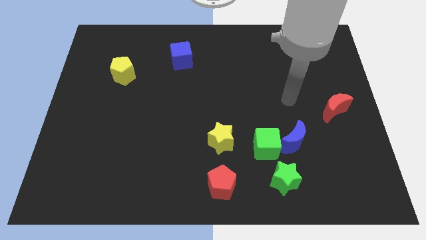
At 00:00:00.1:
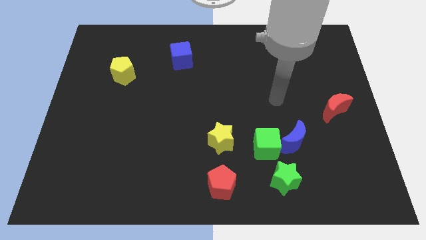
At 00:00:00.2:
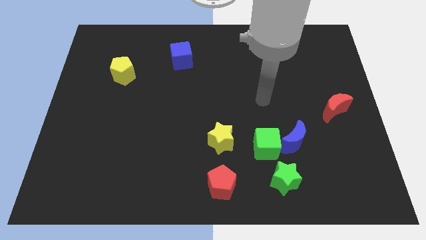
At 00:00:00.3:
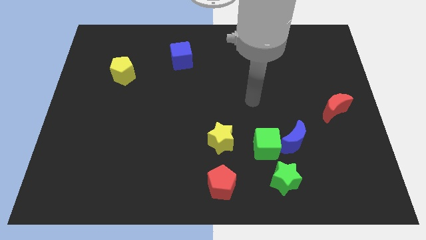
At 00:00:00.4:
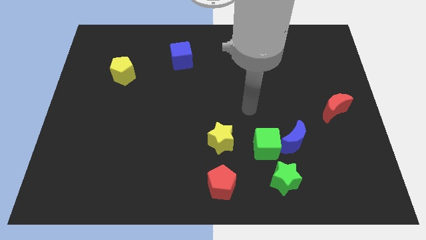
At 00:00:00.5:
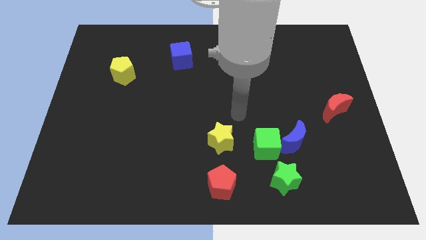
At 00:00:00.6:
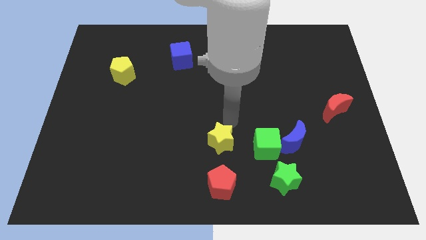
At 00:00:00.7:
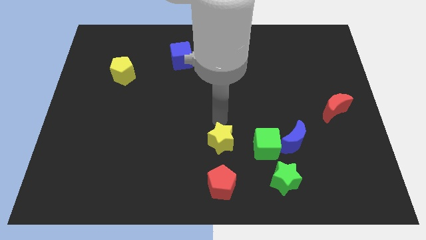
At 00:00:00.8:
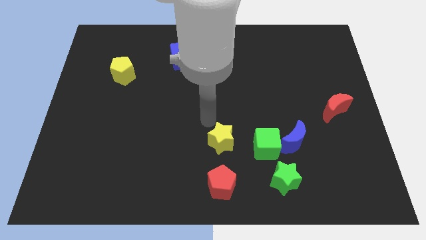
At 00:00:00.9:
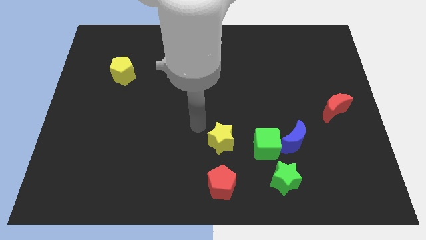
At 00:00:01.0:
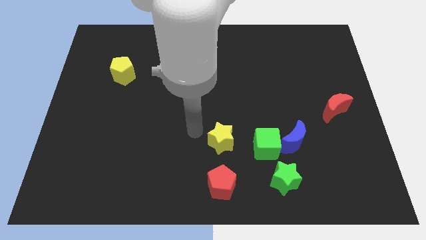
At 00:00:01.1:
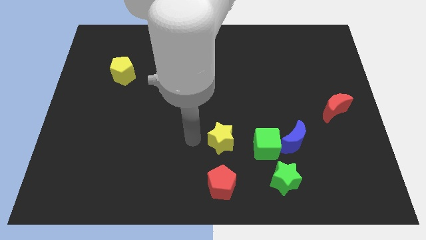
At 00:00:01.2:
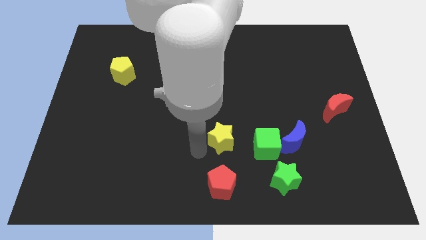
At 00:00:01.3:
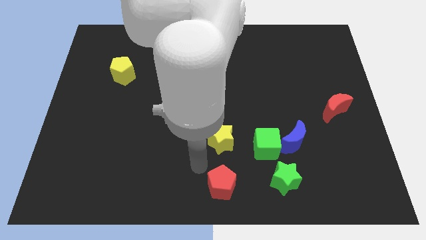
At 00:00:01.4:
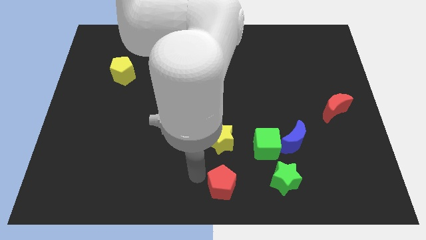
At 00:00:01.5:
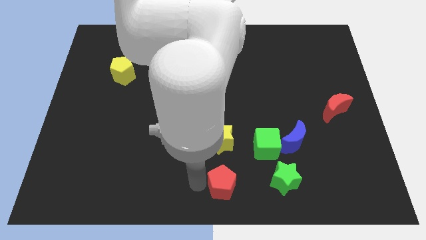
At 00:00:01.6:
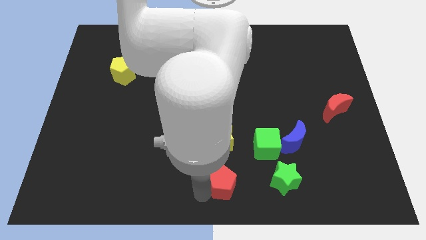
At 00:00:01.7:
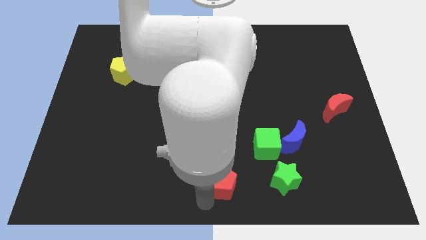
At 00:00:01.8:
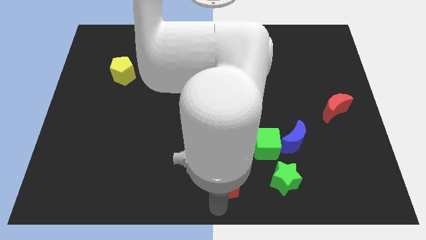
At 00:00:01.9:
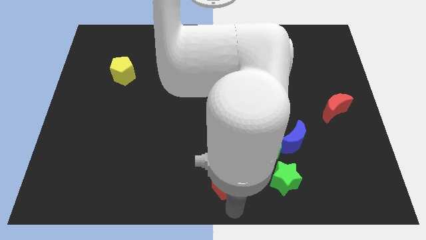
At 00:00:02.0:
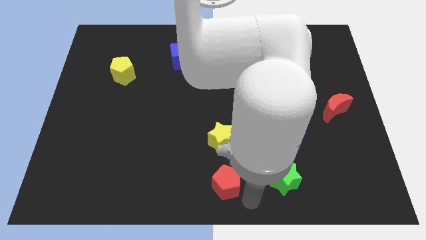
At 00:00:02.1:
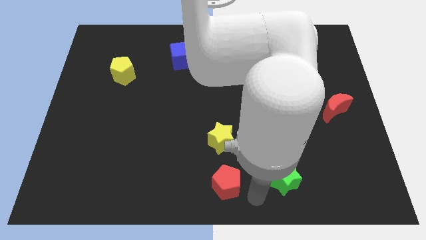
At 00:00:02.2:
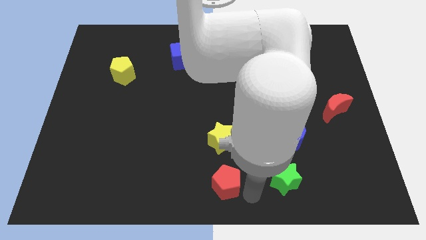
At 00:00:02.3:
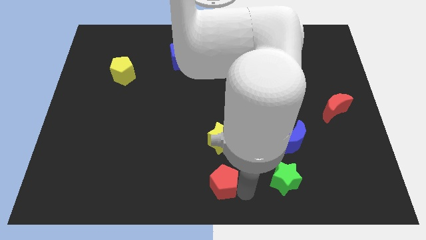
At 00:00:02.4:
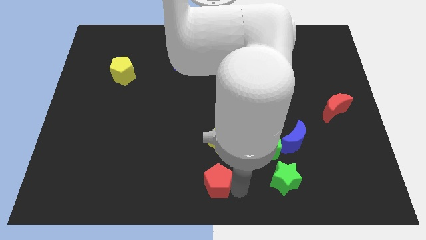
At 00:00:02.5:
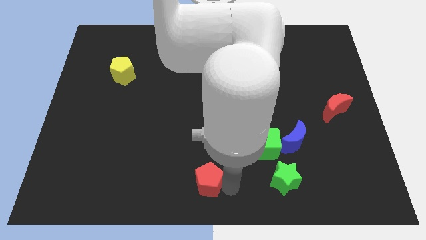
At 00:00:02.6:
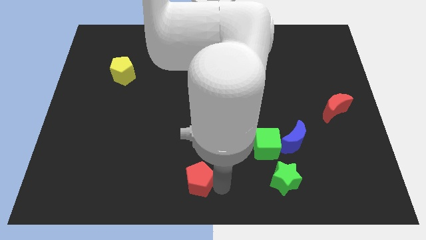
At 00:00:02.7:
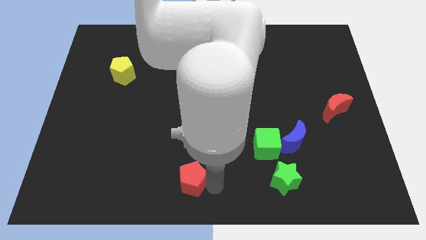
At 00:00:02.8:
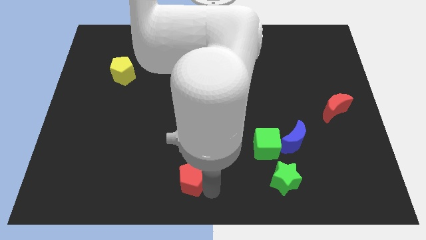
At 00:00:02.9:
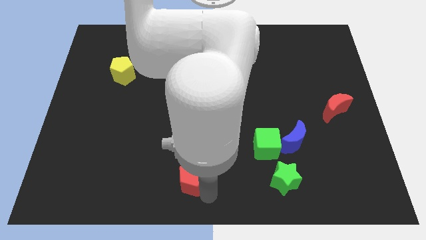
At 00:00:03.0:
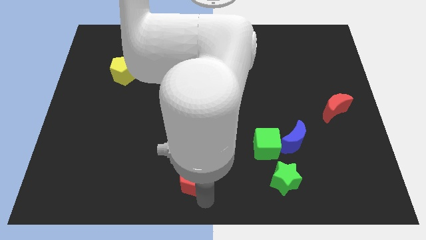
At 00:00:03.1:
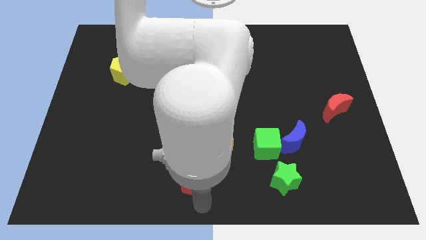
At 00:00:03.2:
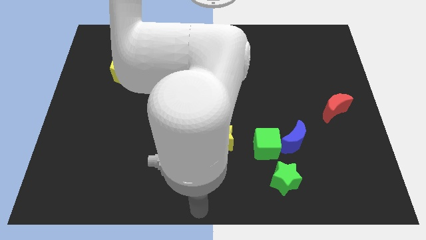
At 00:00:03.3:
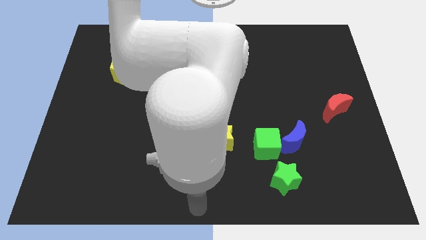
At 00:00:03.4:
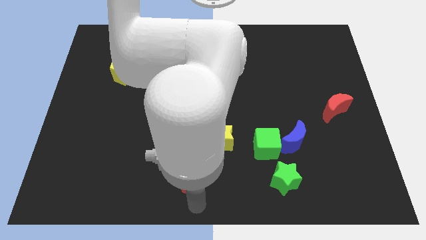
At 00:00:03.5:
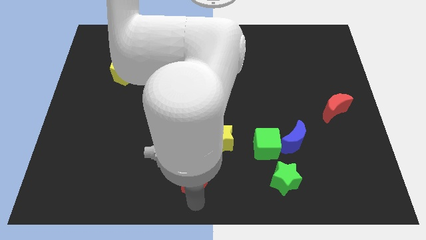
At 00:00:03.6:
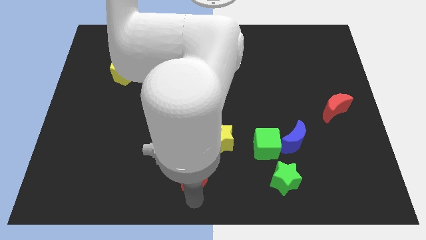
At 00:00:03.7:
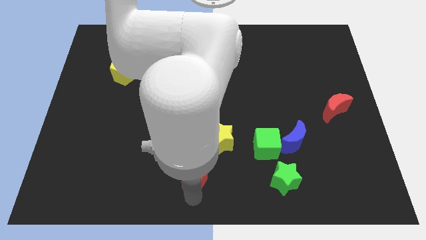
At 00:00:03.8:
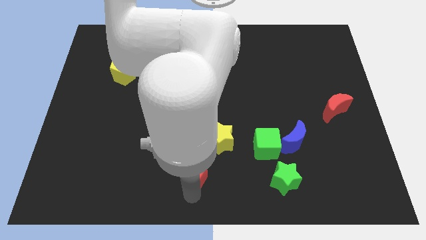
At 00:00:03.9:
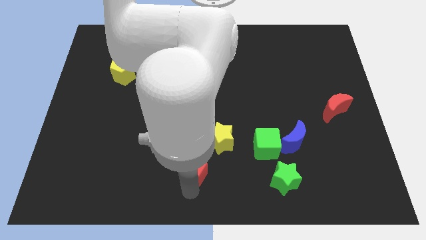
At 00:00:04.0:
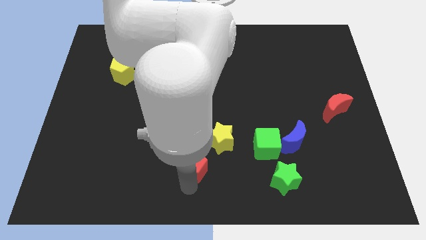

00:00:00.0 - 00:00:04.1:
slightly push the red pentagon upwards and left diagonally

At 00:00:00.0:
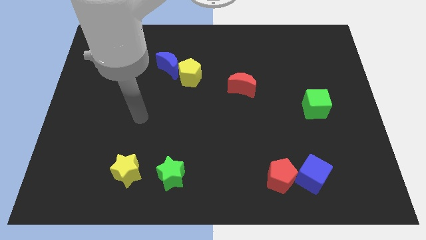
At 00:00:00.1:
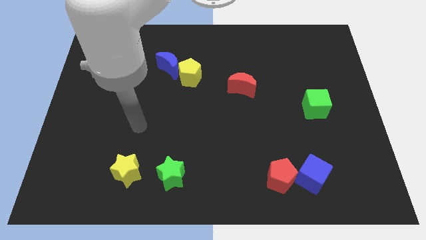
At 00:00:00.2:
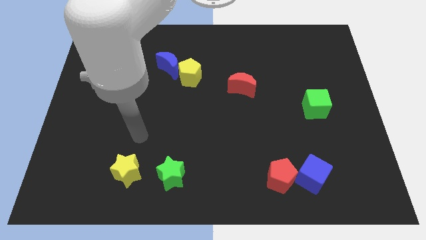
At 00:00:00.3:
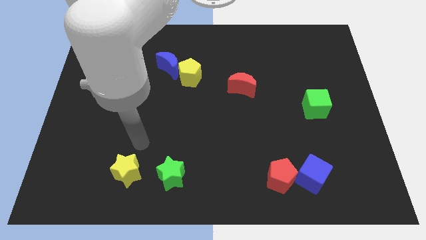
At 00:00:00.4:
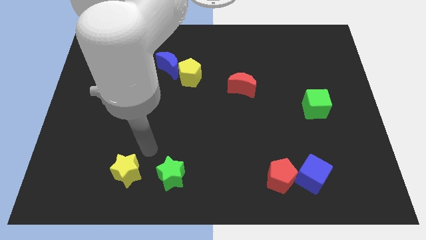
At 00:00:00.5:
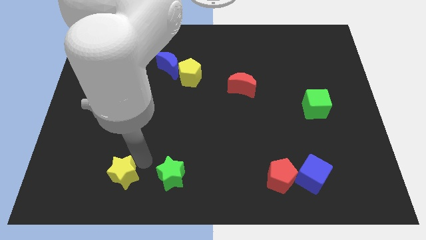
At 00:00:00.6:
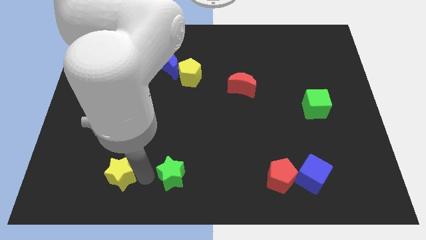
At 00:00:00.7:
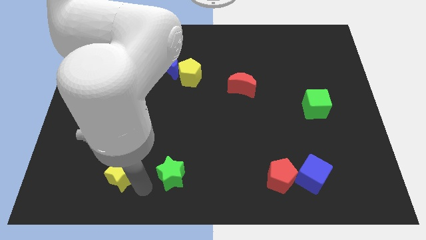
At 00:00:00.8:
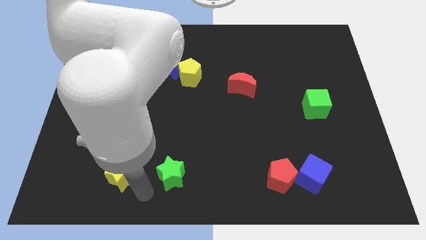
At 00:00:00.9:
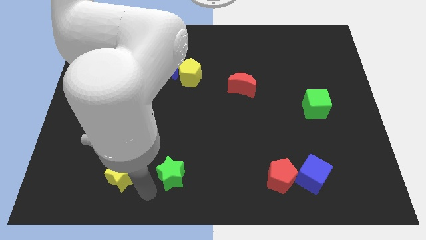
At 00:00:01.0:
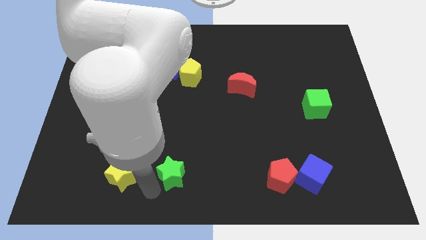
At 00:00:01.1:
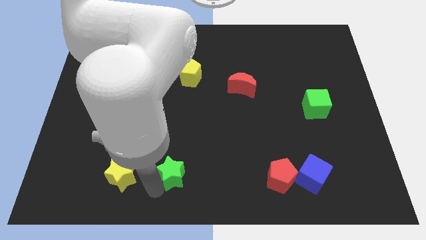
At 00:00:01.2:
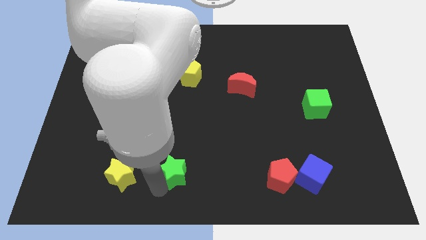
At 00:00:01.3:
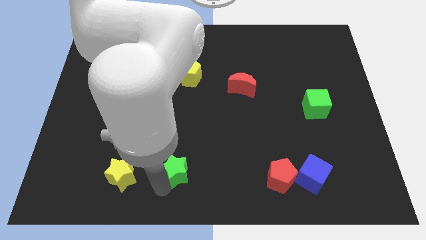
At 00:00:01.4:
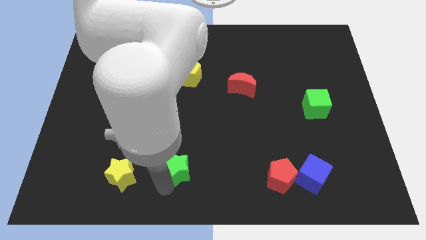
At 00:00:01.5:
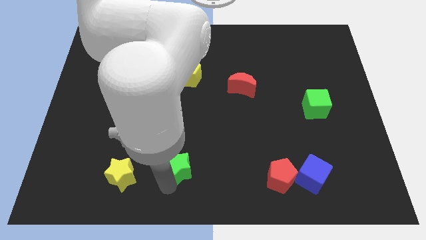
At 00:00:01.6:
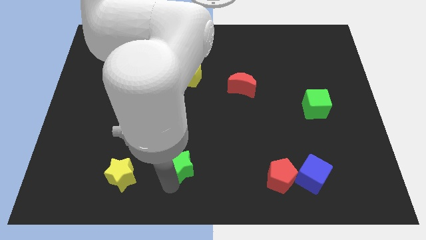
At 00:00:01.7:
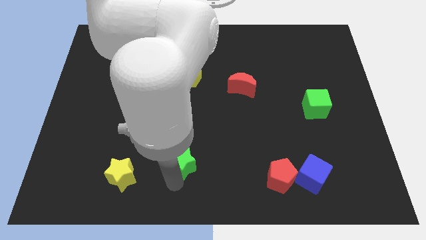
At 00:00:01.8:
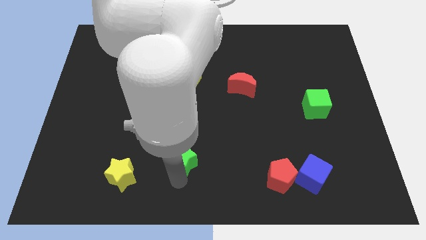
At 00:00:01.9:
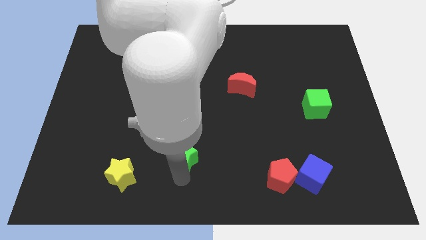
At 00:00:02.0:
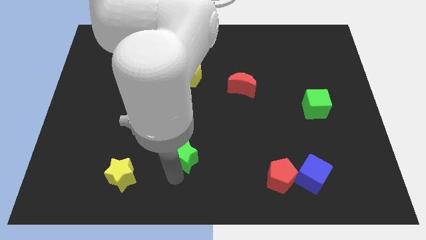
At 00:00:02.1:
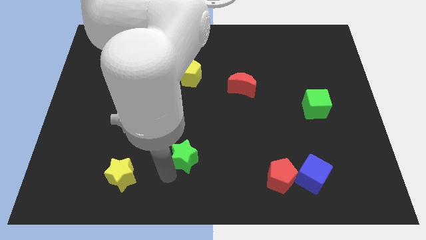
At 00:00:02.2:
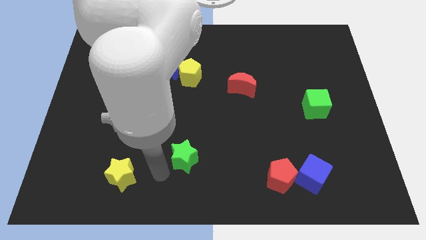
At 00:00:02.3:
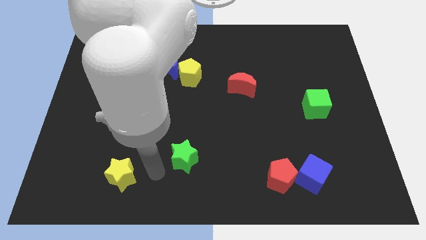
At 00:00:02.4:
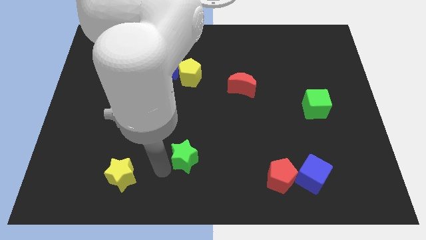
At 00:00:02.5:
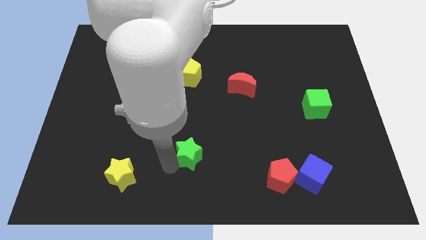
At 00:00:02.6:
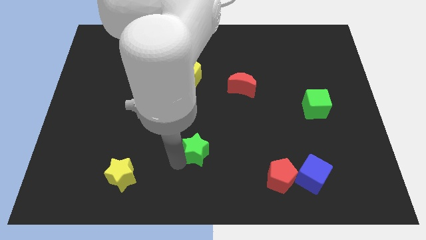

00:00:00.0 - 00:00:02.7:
slightly slide the green star diagonally upwards and to the right

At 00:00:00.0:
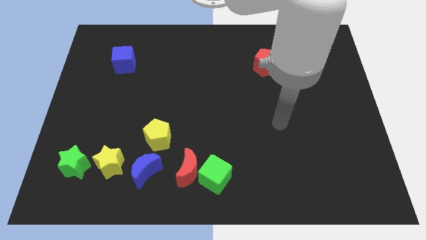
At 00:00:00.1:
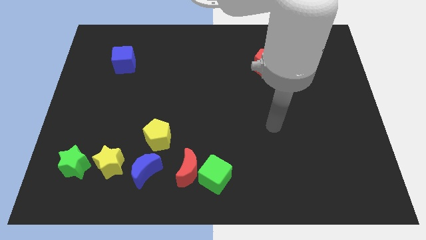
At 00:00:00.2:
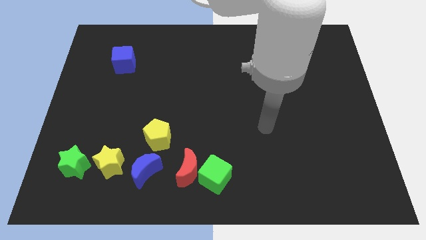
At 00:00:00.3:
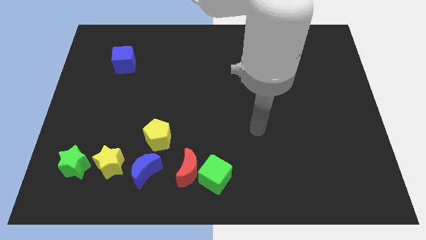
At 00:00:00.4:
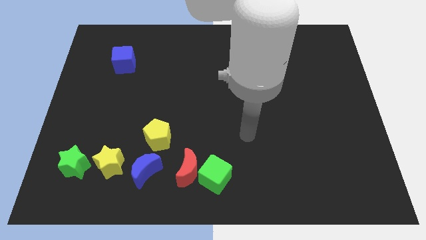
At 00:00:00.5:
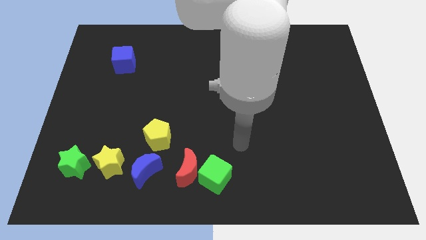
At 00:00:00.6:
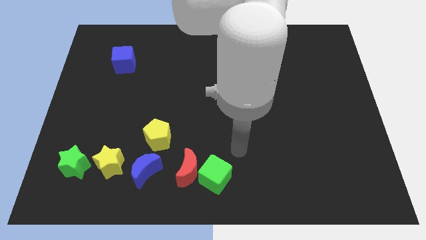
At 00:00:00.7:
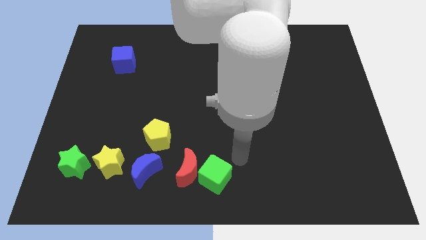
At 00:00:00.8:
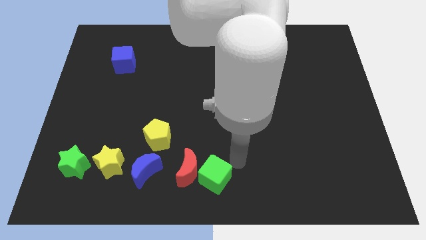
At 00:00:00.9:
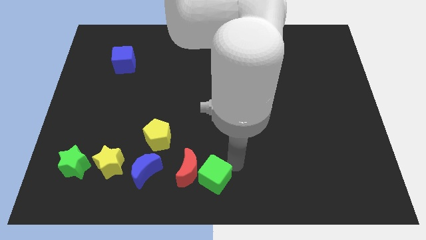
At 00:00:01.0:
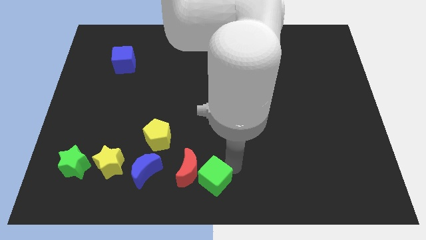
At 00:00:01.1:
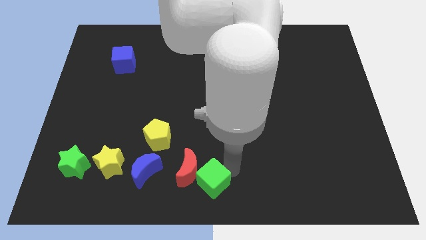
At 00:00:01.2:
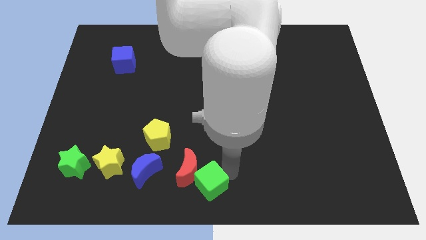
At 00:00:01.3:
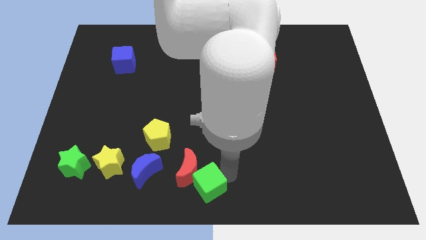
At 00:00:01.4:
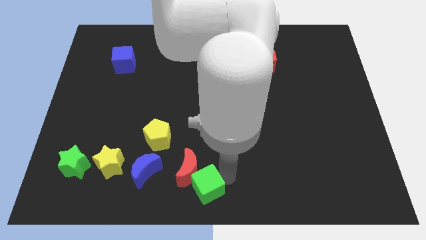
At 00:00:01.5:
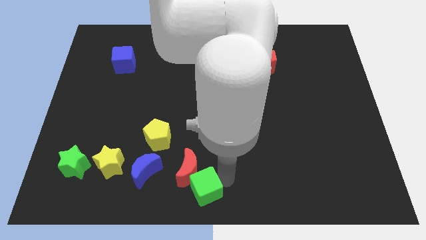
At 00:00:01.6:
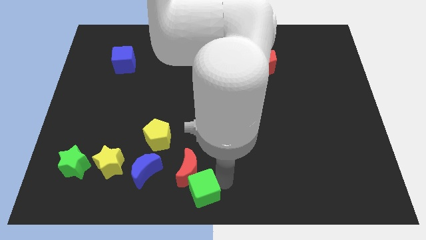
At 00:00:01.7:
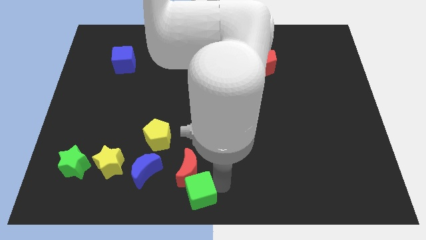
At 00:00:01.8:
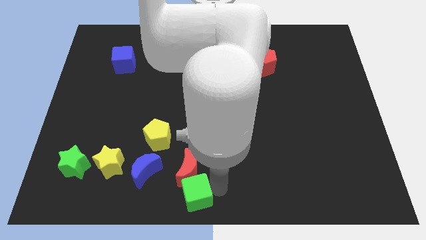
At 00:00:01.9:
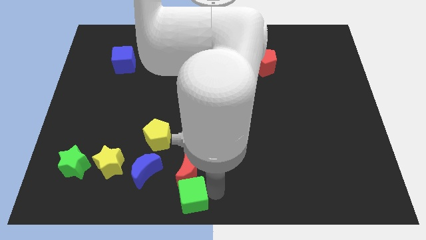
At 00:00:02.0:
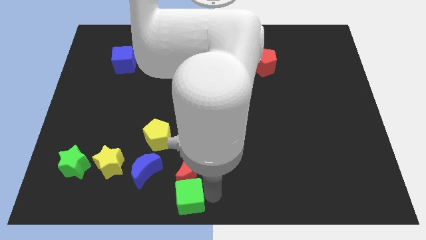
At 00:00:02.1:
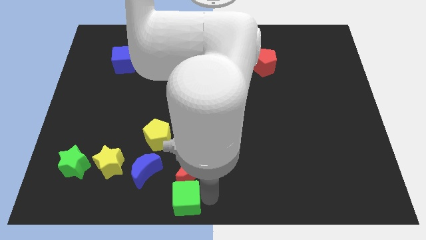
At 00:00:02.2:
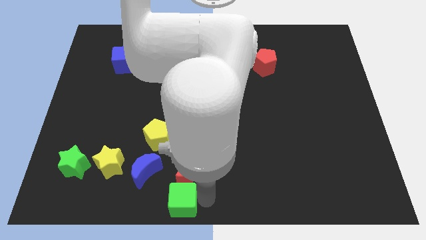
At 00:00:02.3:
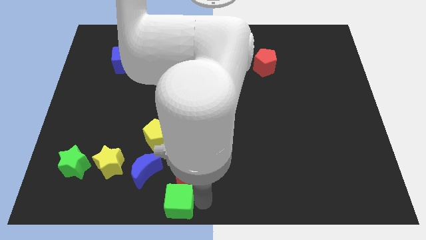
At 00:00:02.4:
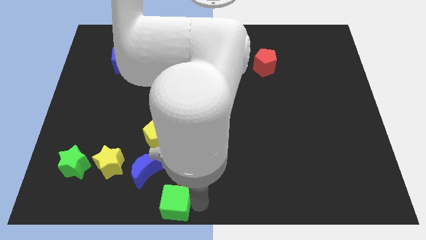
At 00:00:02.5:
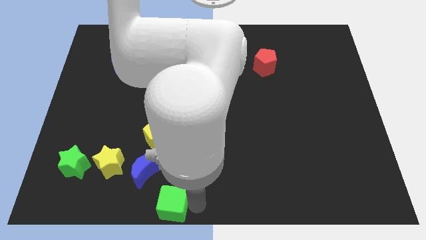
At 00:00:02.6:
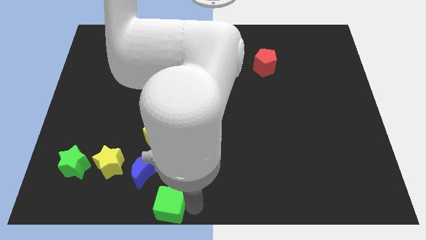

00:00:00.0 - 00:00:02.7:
push the green cube left somewhat
